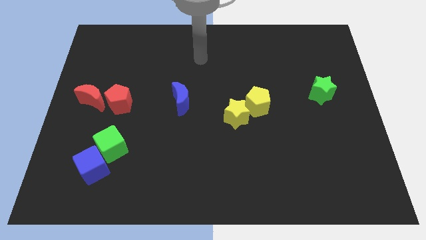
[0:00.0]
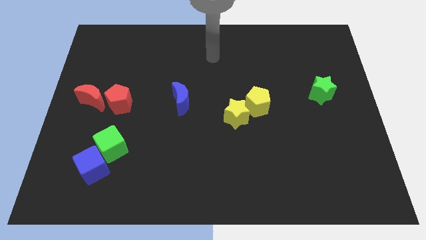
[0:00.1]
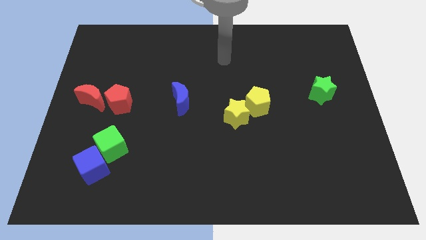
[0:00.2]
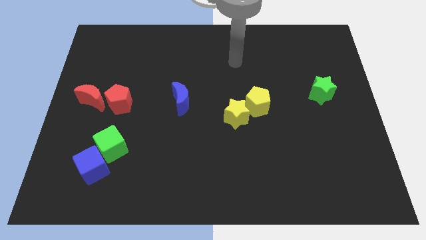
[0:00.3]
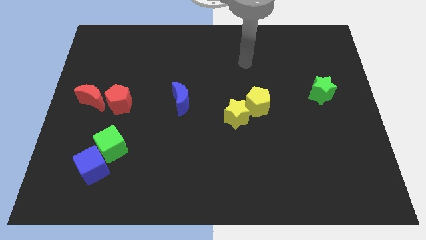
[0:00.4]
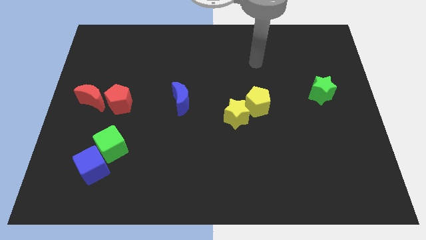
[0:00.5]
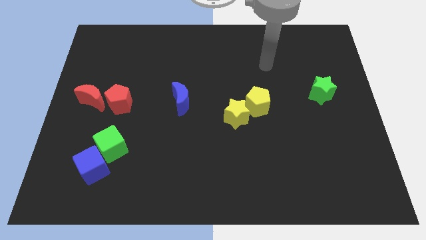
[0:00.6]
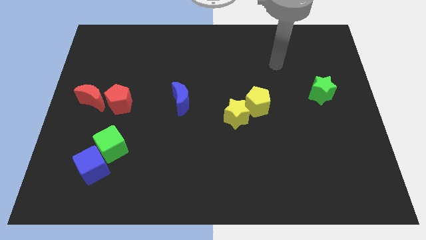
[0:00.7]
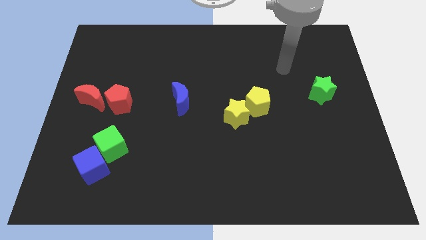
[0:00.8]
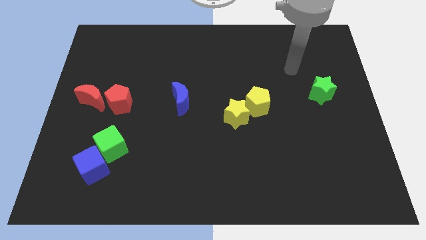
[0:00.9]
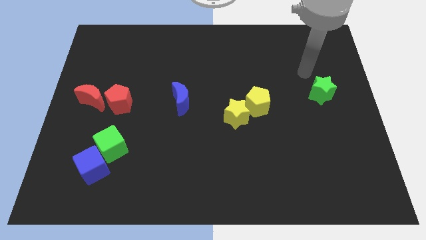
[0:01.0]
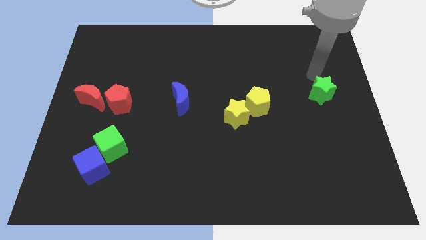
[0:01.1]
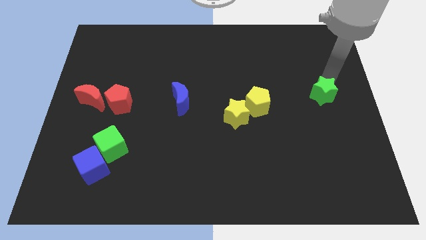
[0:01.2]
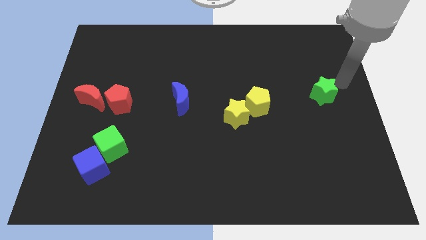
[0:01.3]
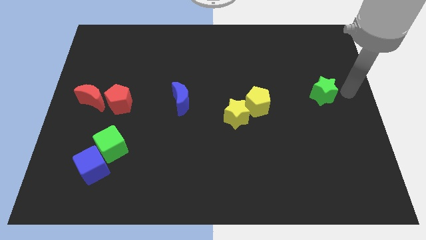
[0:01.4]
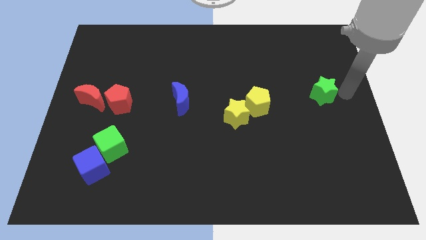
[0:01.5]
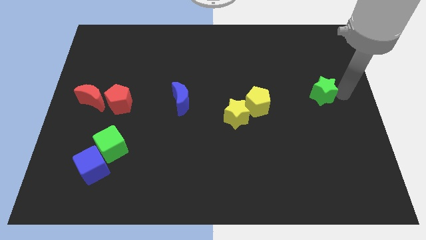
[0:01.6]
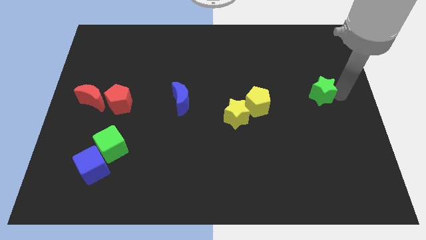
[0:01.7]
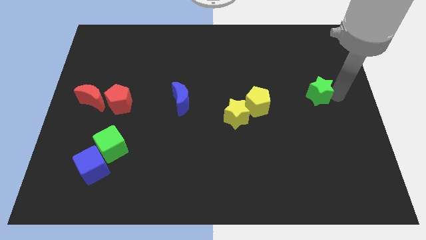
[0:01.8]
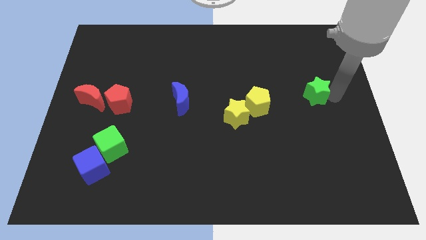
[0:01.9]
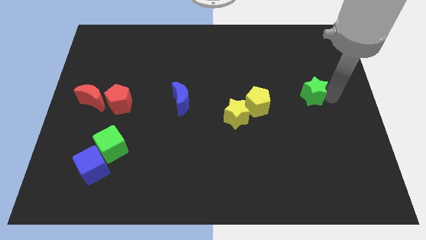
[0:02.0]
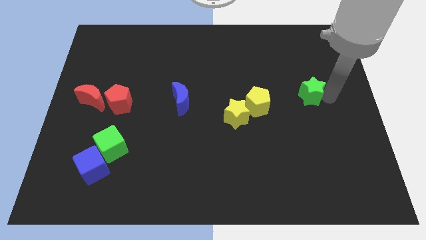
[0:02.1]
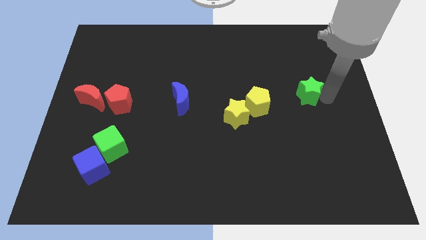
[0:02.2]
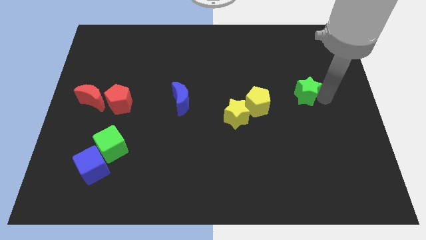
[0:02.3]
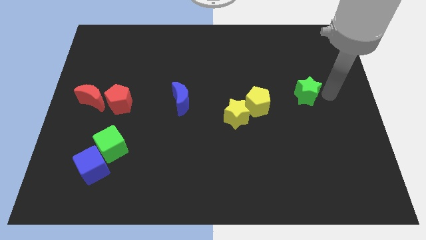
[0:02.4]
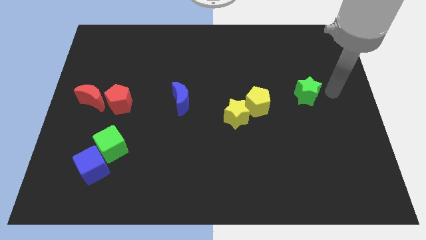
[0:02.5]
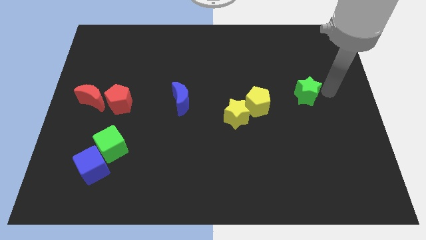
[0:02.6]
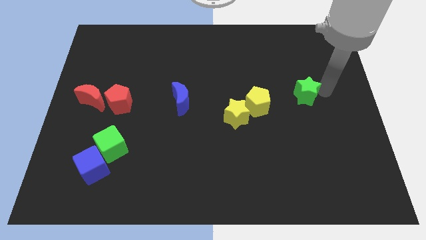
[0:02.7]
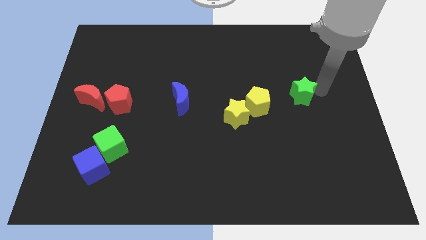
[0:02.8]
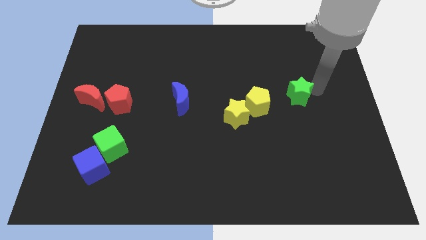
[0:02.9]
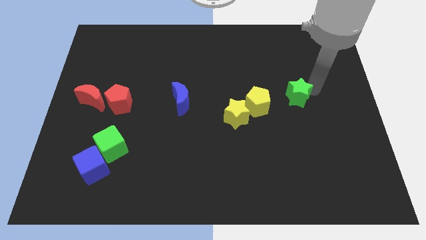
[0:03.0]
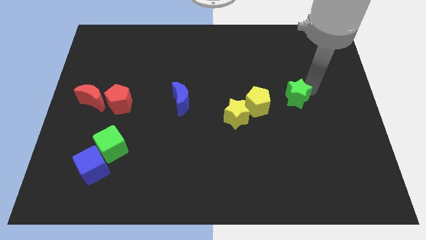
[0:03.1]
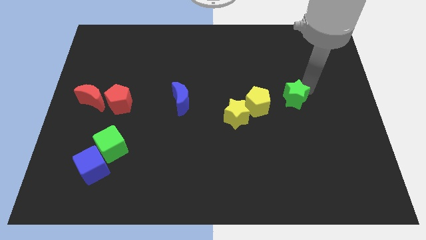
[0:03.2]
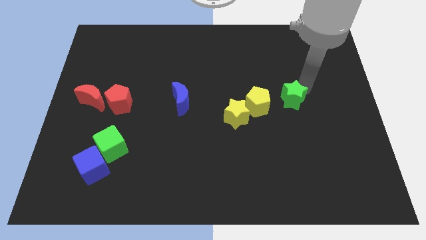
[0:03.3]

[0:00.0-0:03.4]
slide the green star a little bit to the left

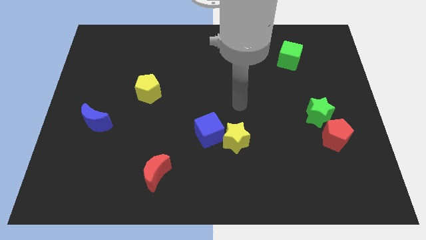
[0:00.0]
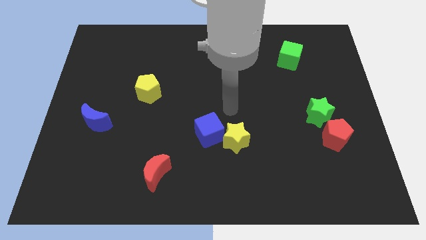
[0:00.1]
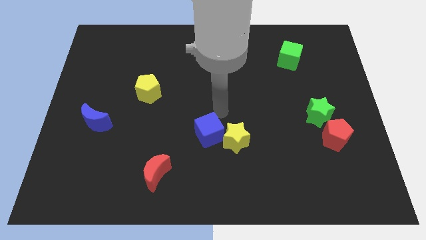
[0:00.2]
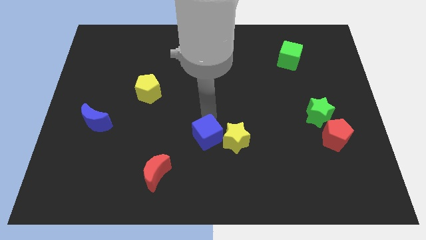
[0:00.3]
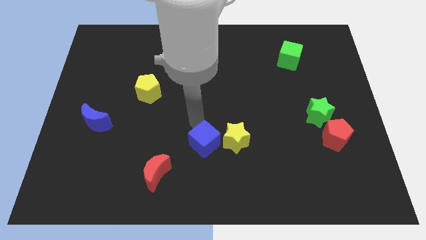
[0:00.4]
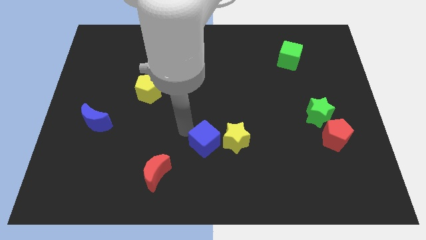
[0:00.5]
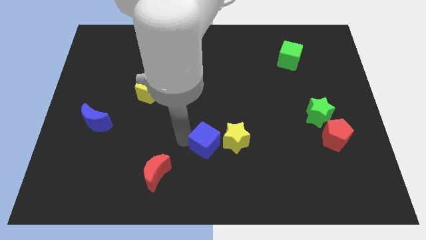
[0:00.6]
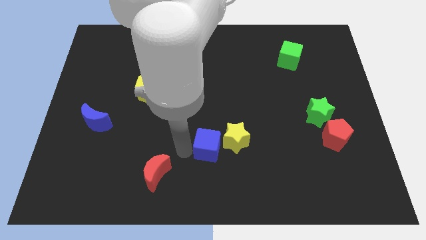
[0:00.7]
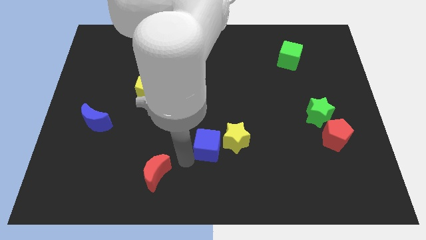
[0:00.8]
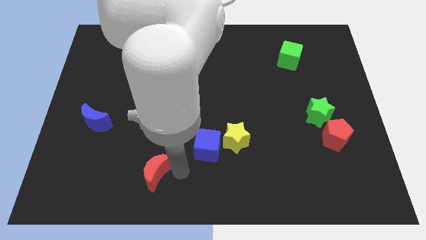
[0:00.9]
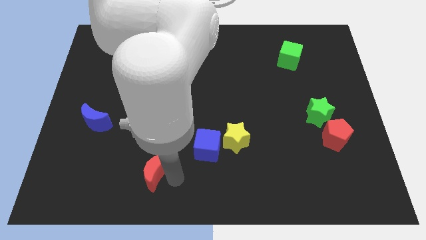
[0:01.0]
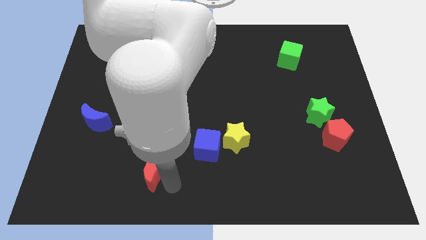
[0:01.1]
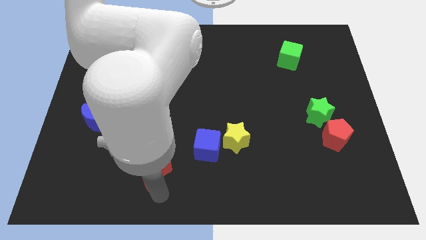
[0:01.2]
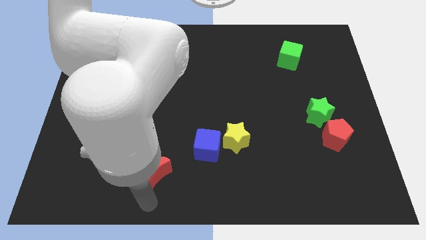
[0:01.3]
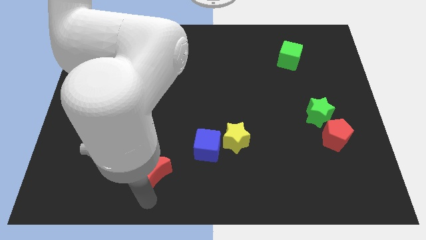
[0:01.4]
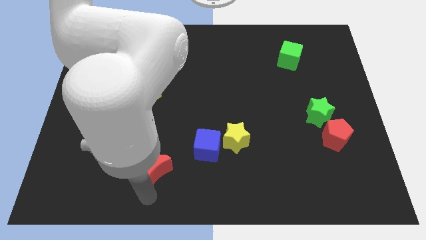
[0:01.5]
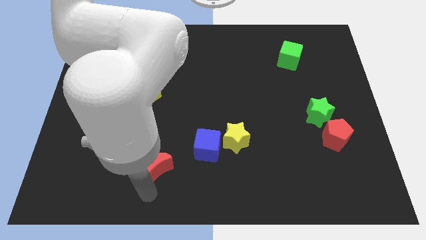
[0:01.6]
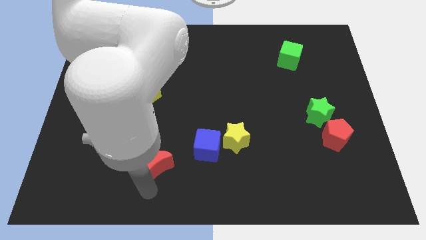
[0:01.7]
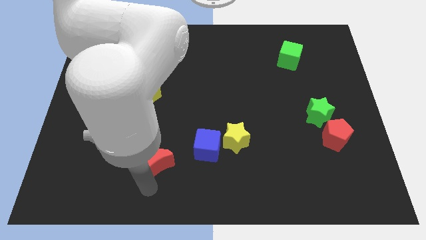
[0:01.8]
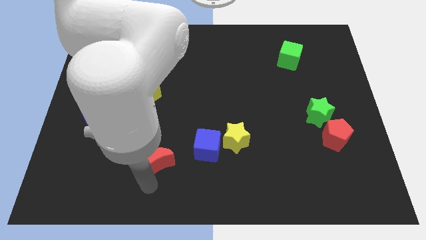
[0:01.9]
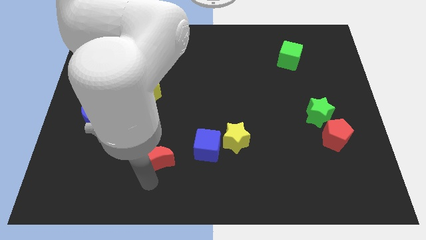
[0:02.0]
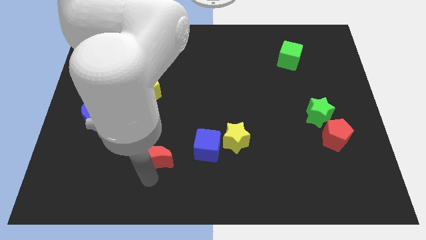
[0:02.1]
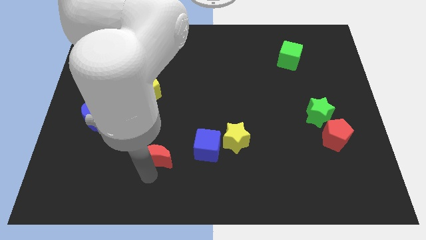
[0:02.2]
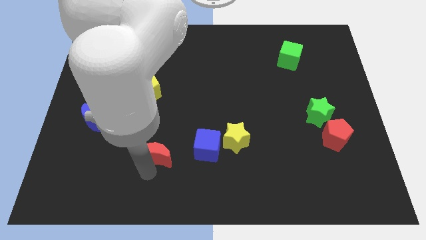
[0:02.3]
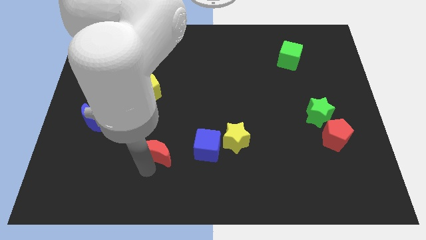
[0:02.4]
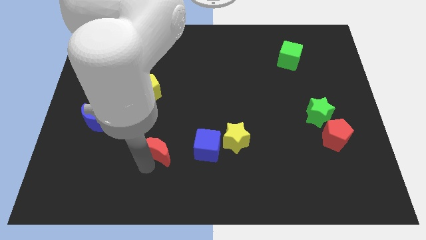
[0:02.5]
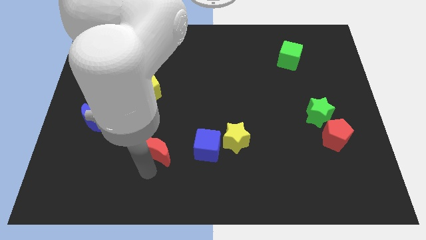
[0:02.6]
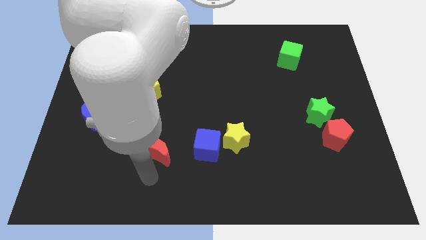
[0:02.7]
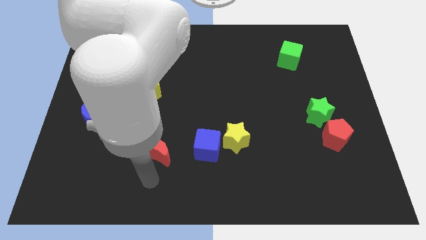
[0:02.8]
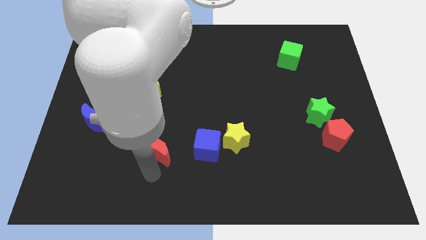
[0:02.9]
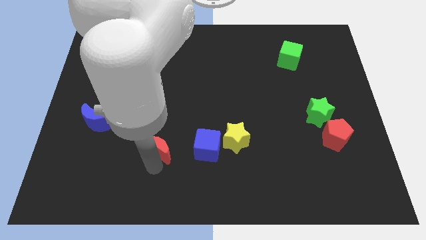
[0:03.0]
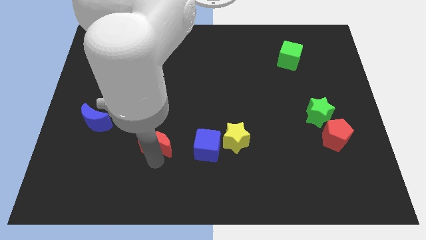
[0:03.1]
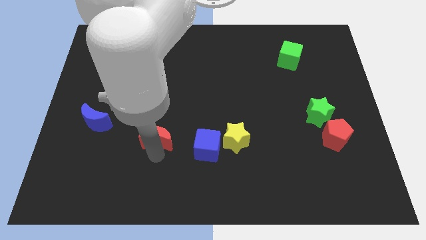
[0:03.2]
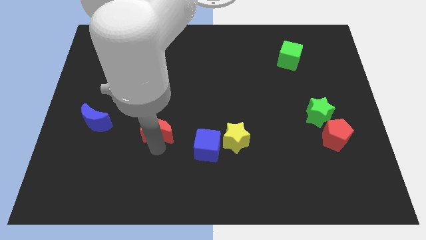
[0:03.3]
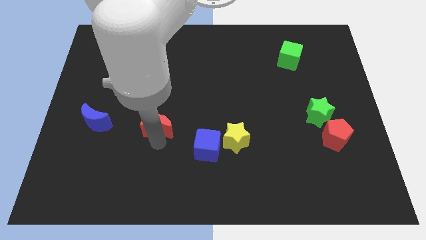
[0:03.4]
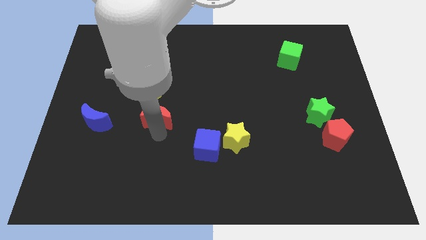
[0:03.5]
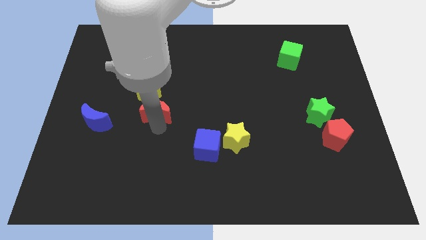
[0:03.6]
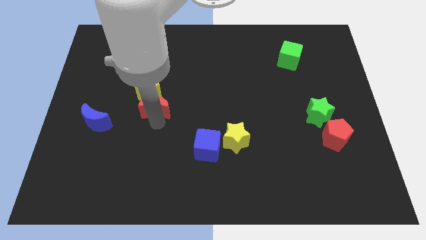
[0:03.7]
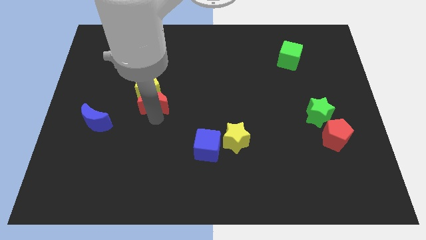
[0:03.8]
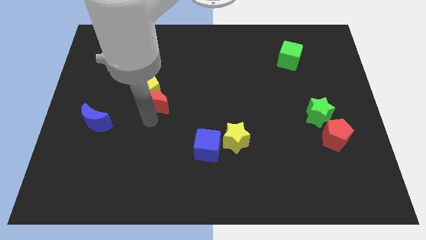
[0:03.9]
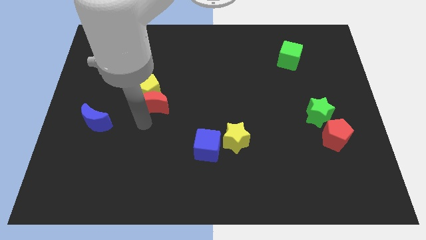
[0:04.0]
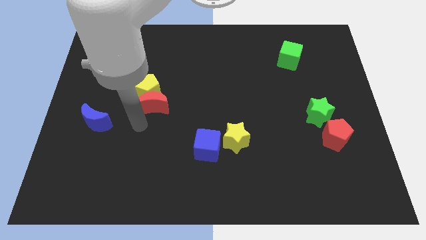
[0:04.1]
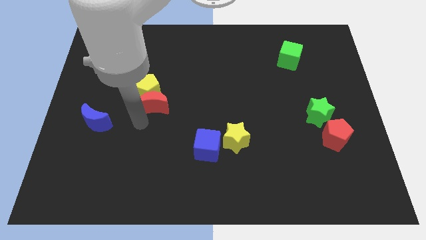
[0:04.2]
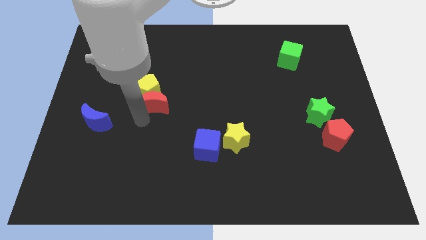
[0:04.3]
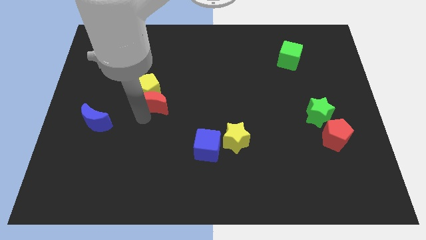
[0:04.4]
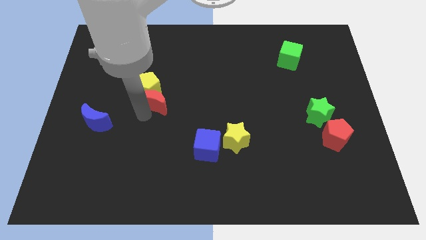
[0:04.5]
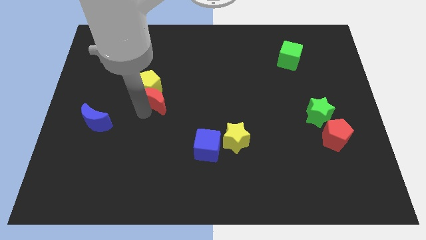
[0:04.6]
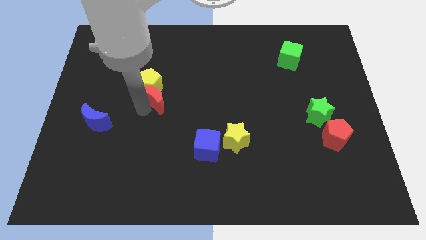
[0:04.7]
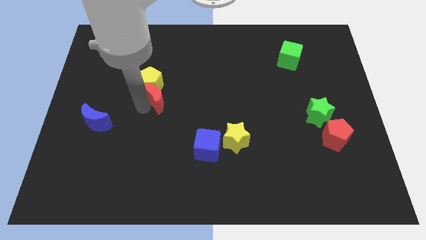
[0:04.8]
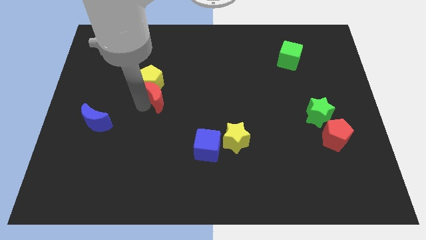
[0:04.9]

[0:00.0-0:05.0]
slide the red moon up
